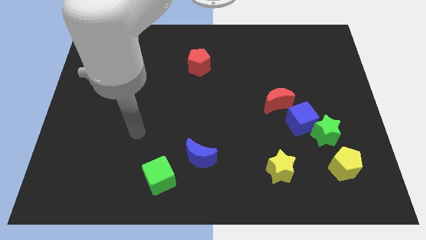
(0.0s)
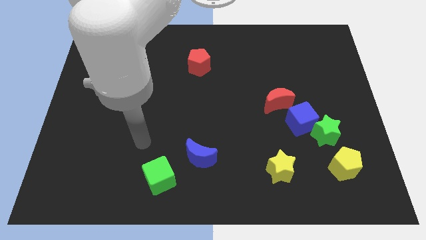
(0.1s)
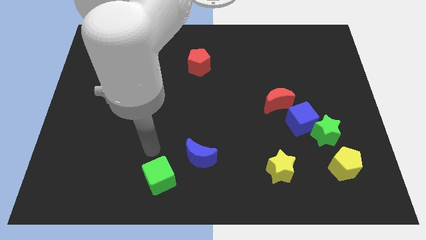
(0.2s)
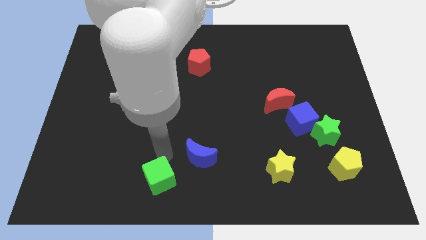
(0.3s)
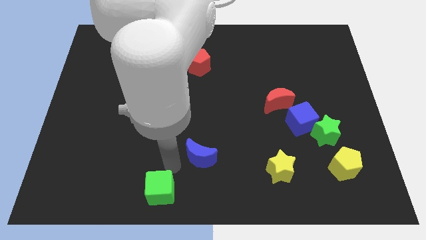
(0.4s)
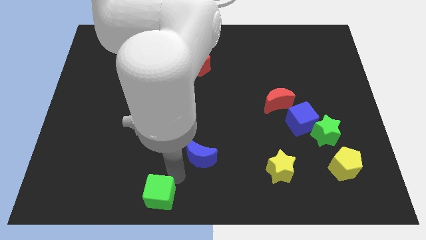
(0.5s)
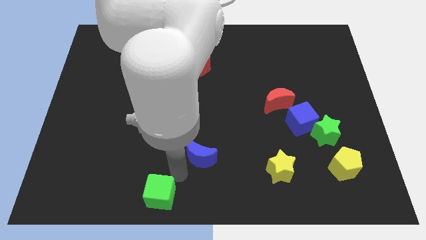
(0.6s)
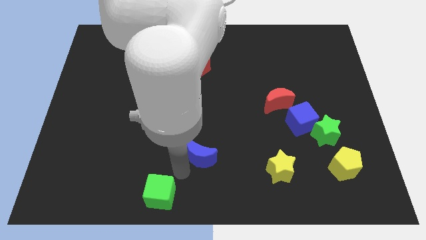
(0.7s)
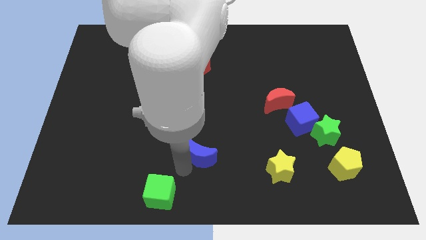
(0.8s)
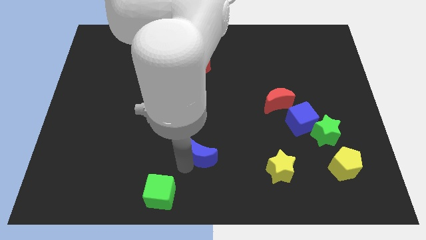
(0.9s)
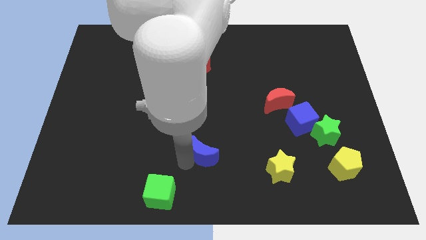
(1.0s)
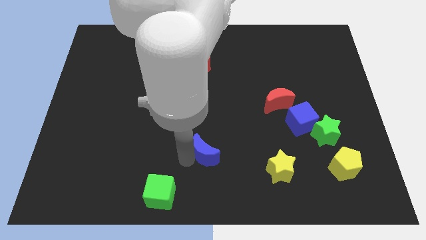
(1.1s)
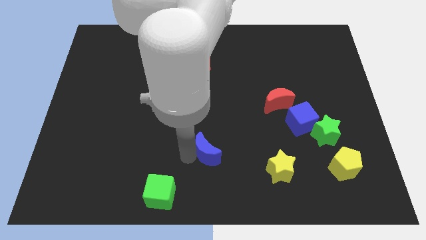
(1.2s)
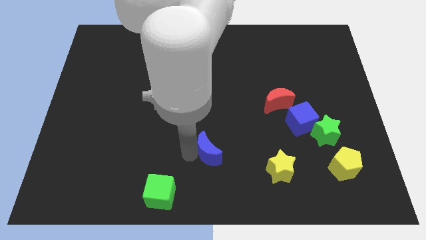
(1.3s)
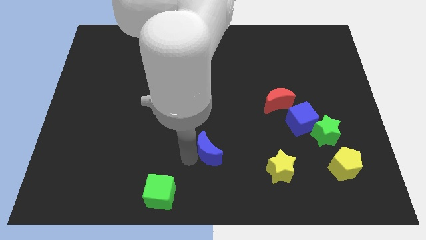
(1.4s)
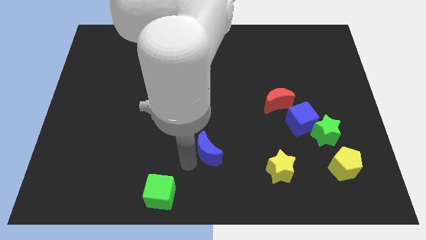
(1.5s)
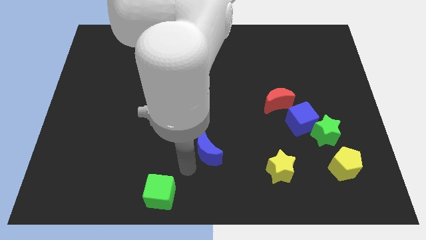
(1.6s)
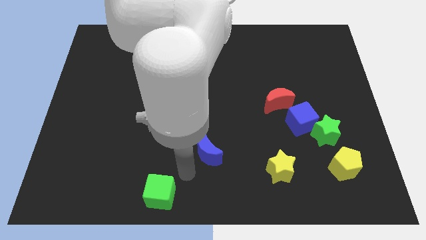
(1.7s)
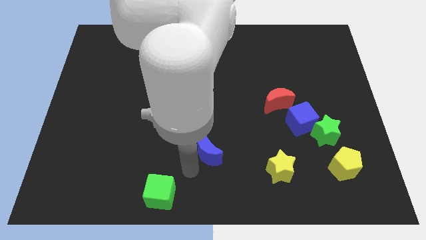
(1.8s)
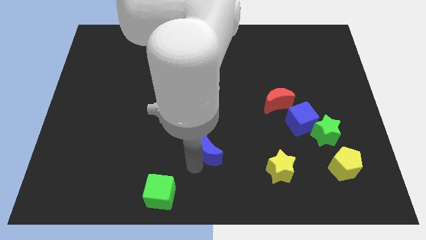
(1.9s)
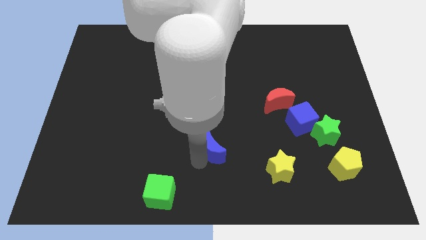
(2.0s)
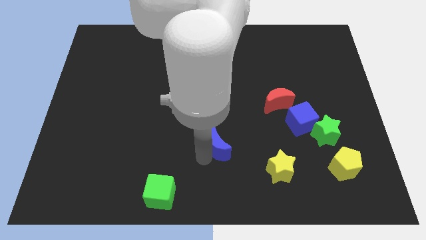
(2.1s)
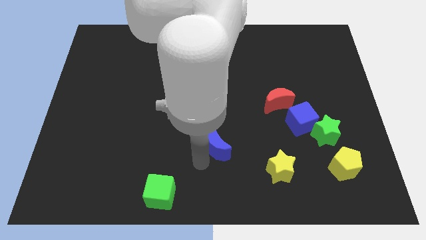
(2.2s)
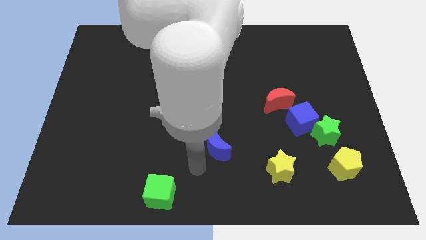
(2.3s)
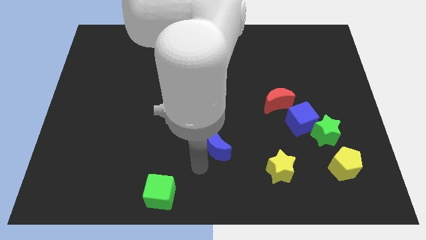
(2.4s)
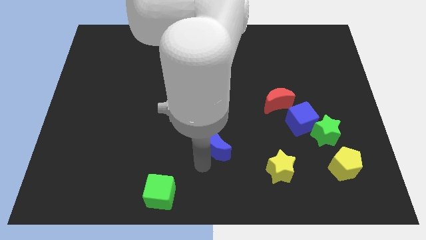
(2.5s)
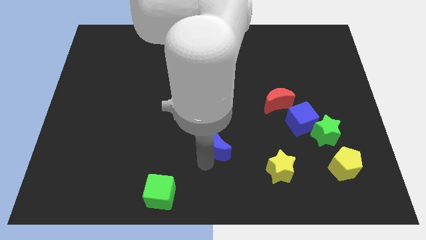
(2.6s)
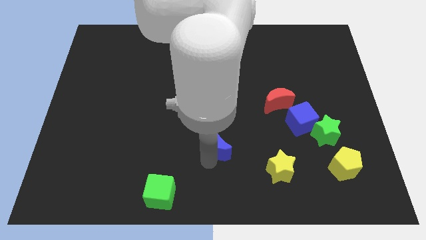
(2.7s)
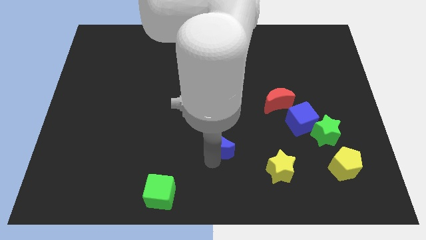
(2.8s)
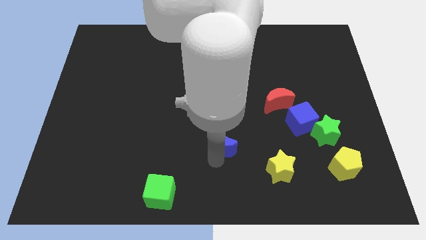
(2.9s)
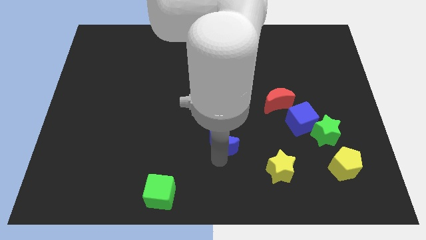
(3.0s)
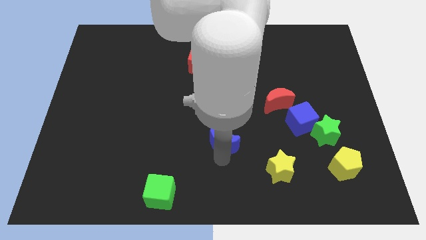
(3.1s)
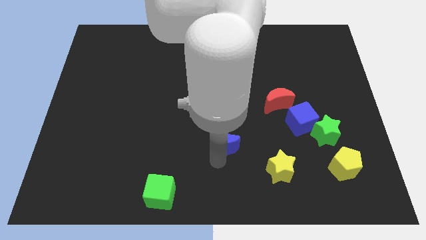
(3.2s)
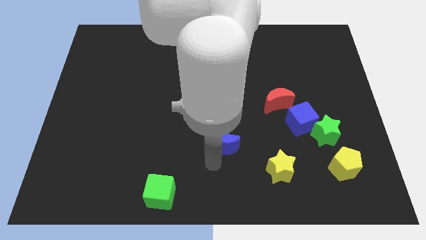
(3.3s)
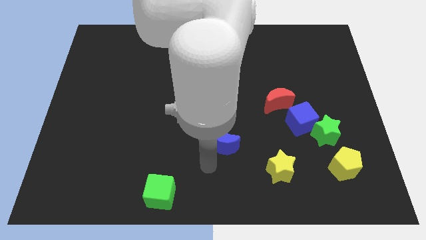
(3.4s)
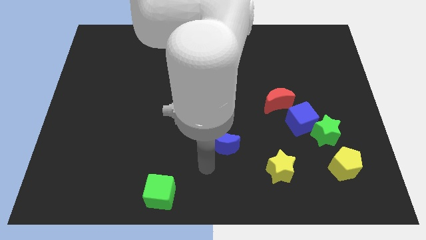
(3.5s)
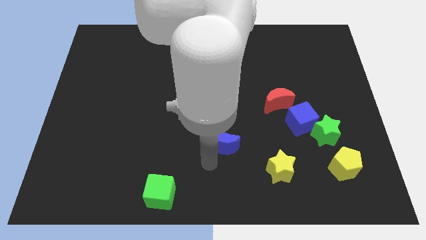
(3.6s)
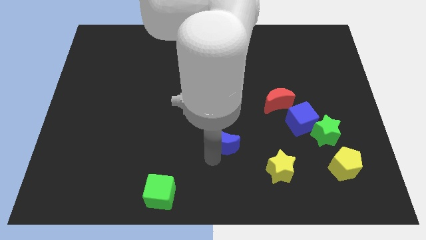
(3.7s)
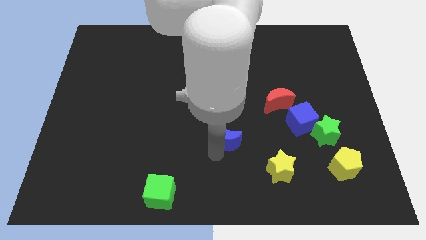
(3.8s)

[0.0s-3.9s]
move the blue moon a little bit upwards and then to the right

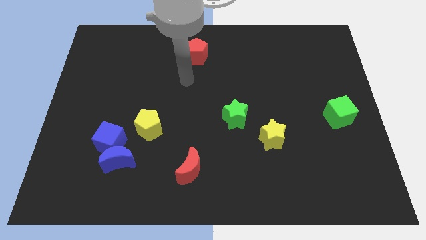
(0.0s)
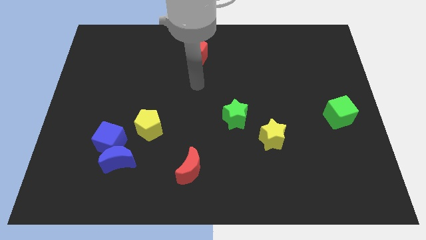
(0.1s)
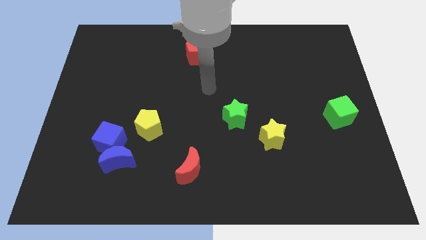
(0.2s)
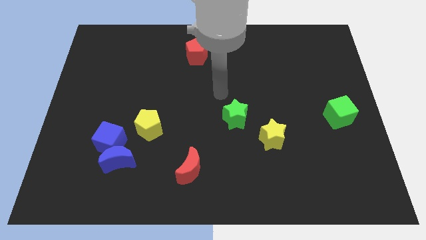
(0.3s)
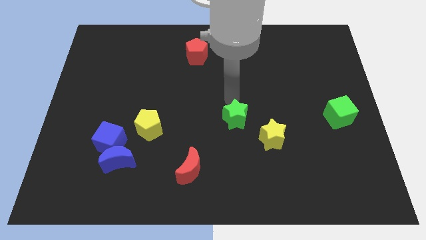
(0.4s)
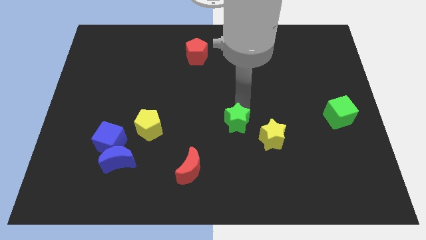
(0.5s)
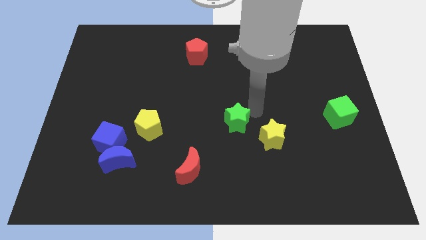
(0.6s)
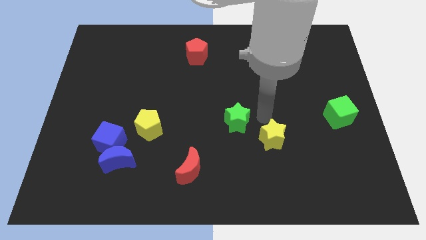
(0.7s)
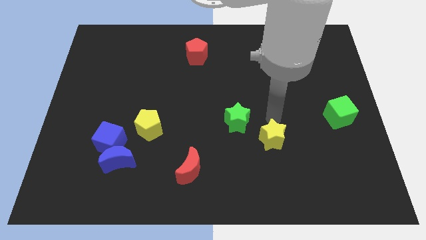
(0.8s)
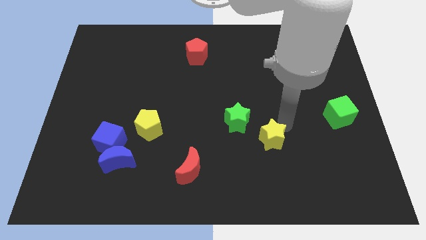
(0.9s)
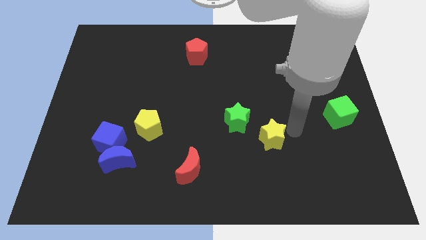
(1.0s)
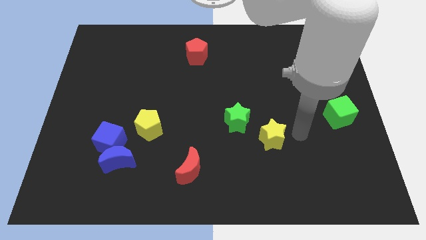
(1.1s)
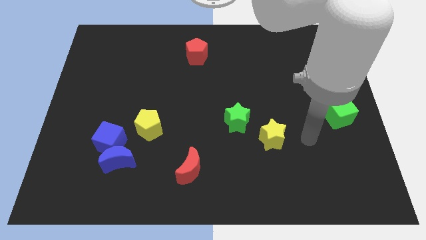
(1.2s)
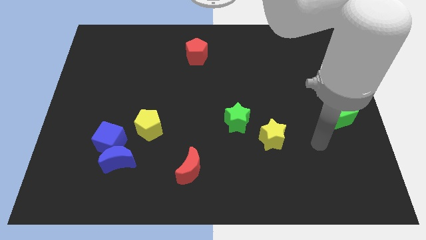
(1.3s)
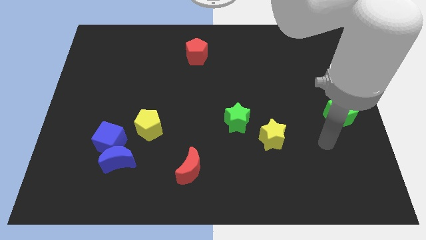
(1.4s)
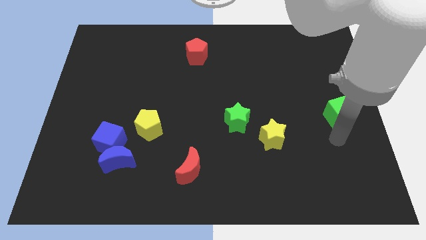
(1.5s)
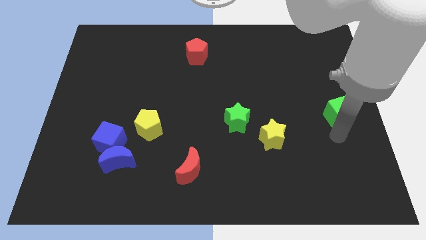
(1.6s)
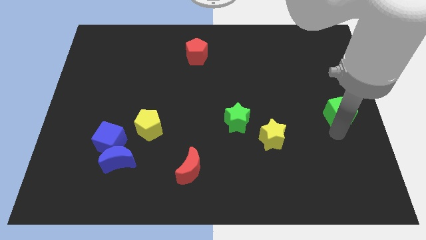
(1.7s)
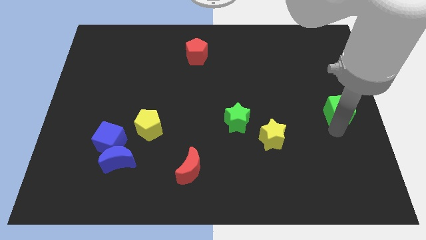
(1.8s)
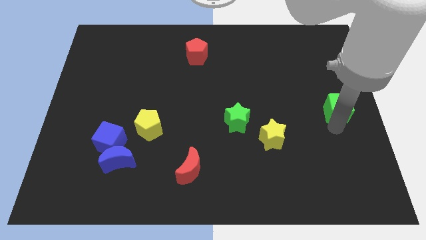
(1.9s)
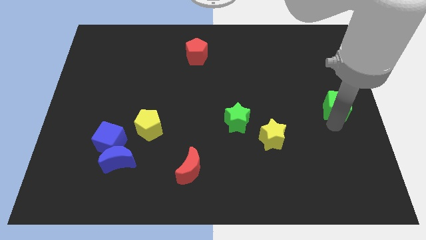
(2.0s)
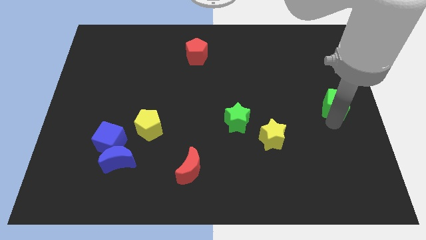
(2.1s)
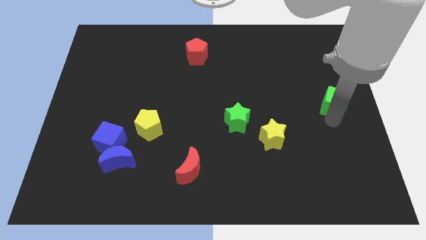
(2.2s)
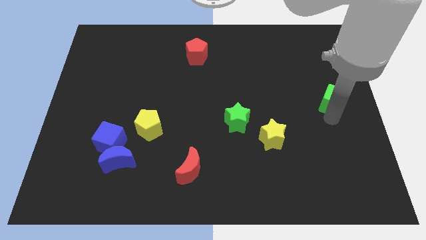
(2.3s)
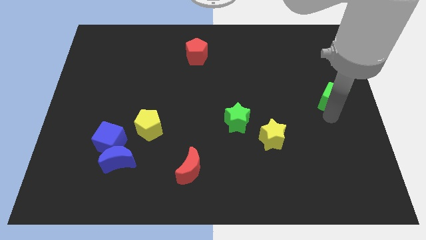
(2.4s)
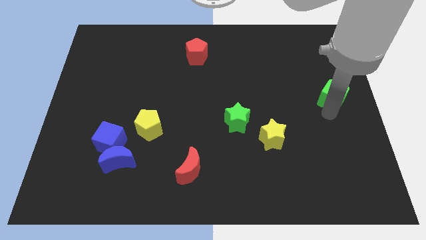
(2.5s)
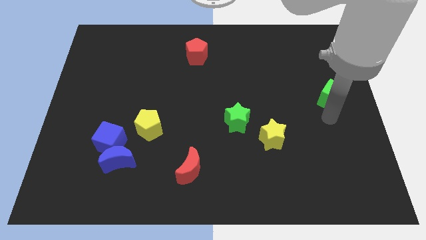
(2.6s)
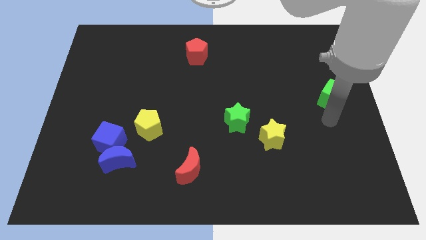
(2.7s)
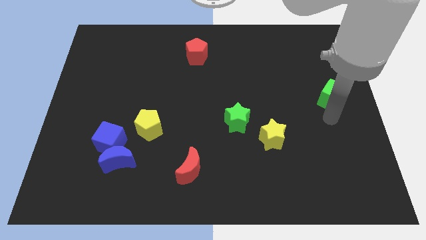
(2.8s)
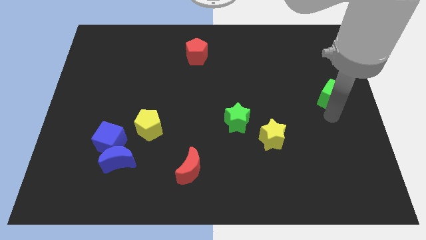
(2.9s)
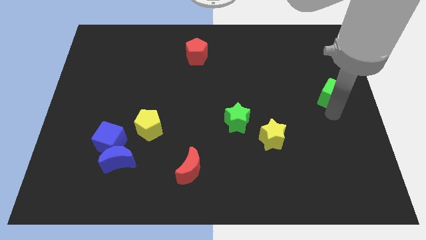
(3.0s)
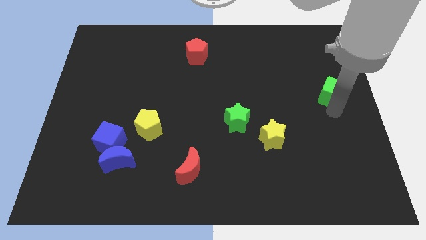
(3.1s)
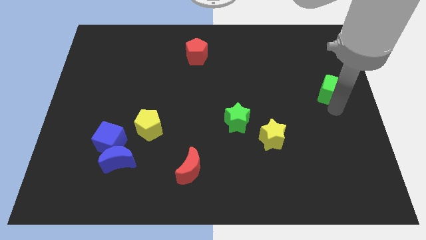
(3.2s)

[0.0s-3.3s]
move the green cube slightly up
